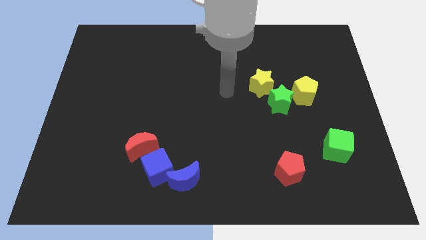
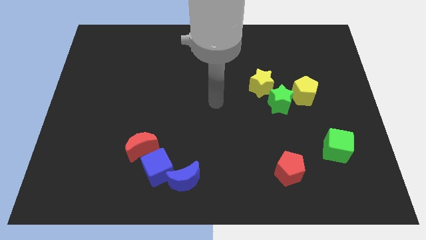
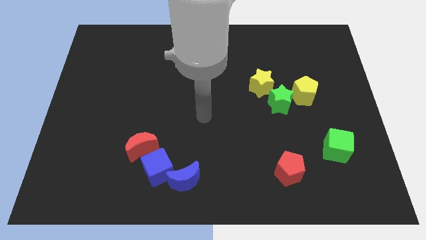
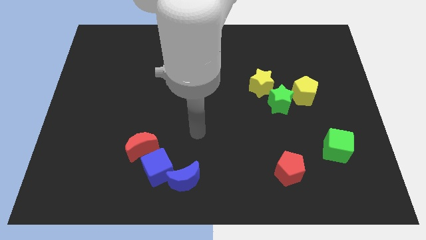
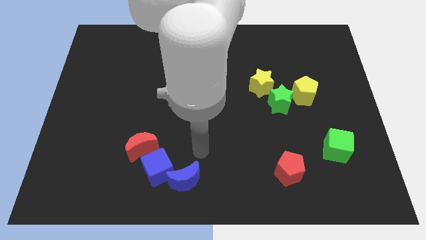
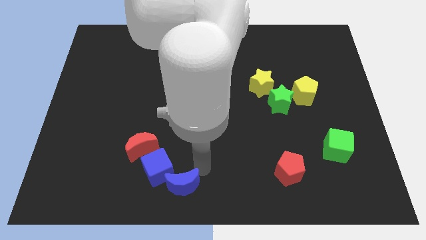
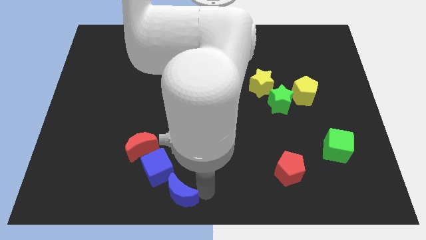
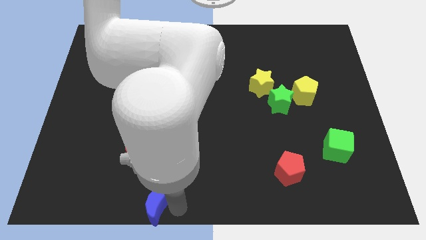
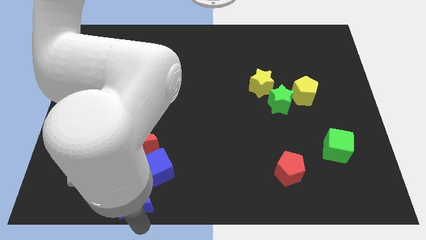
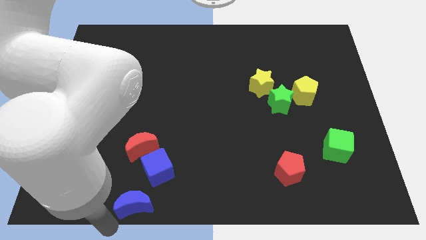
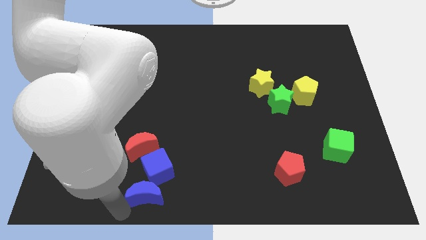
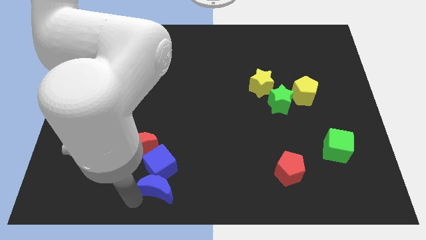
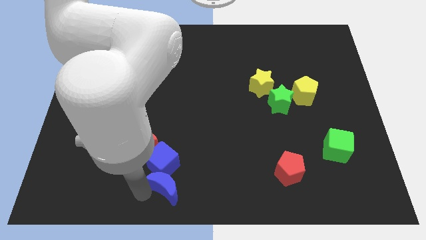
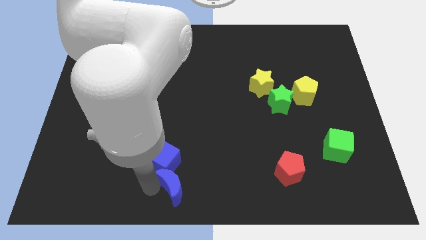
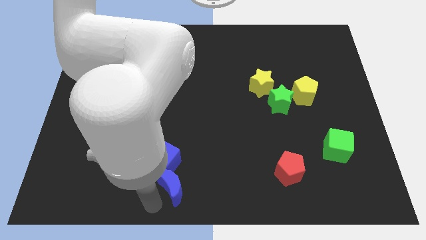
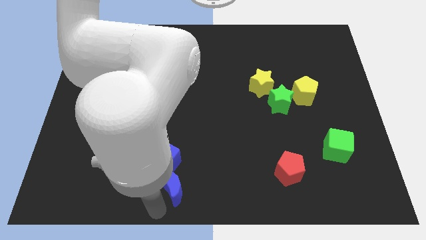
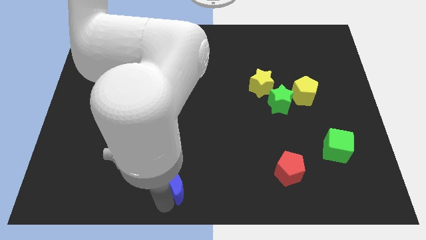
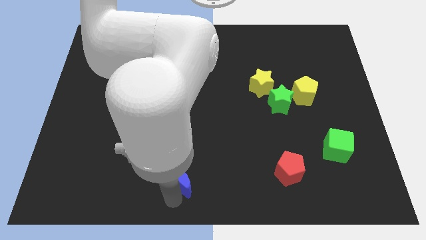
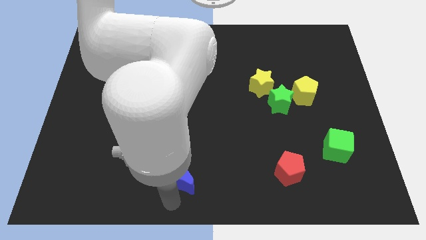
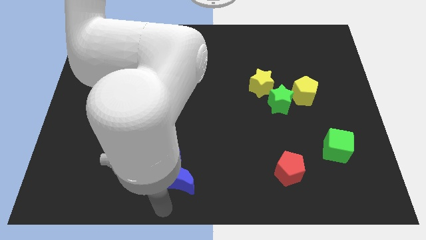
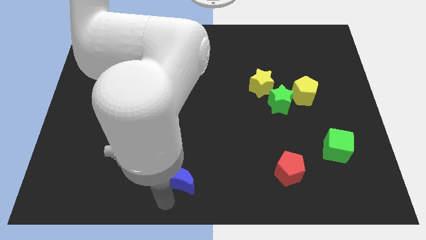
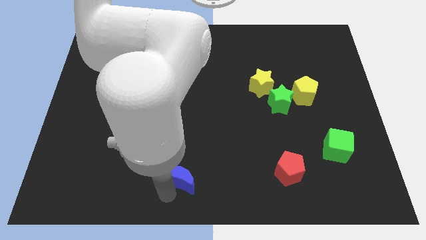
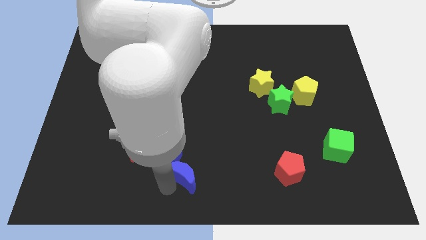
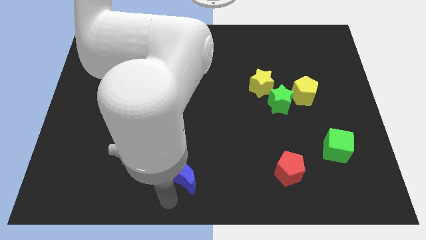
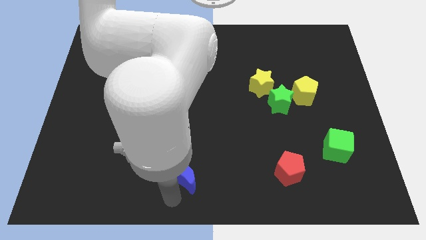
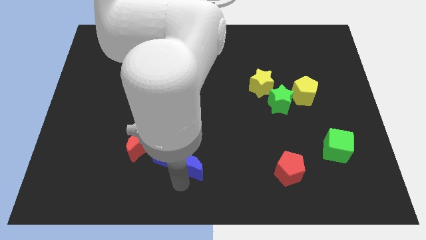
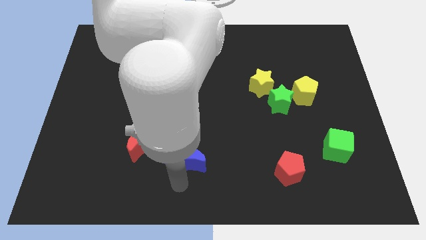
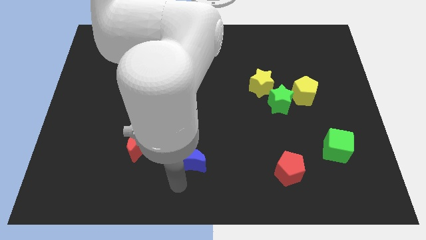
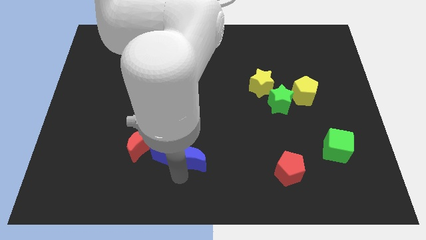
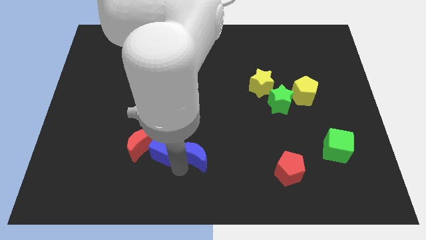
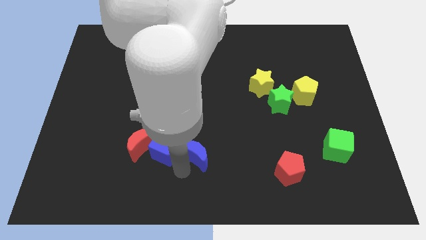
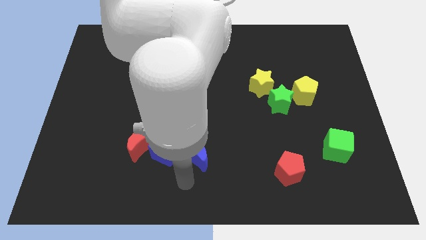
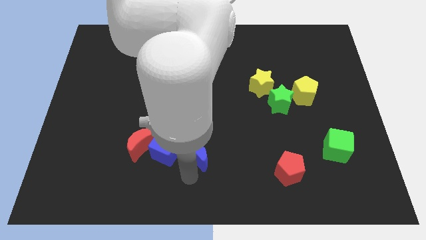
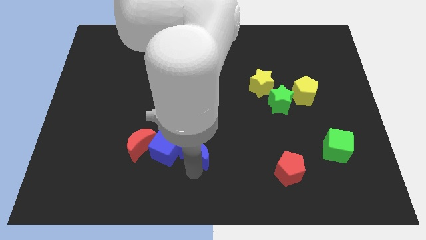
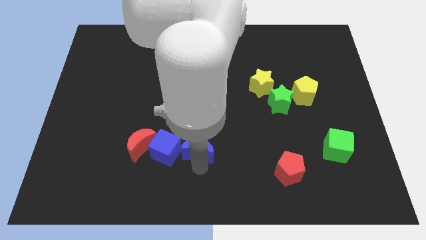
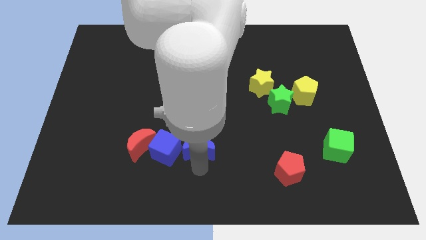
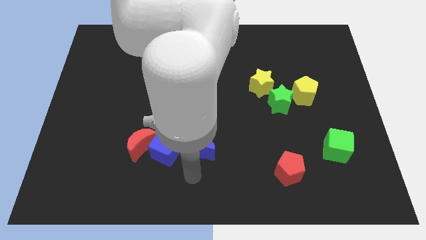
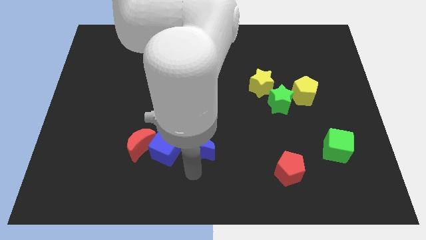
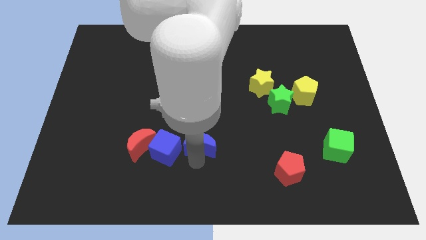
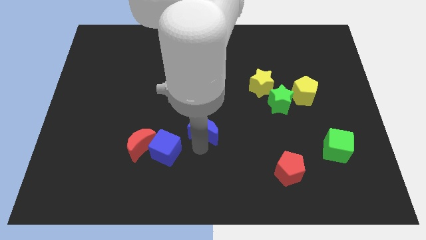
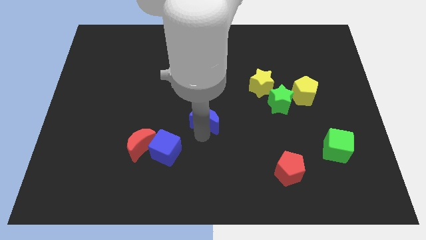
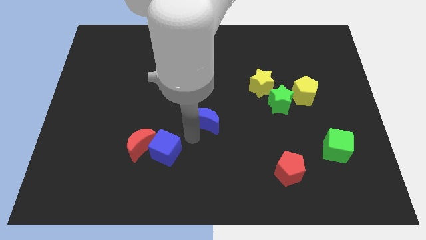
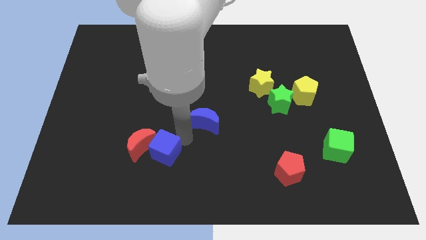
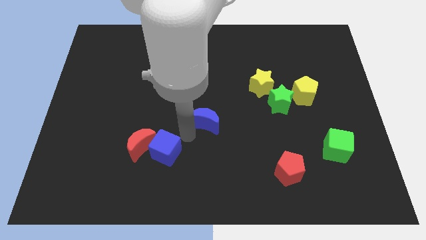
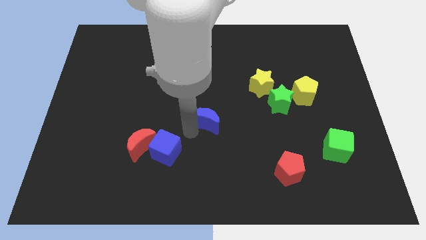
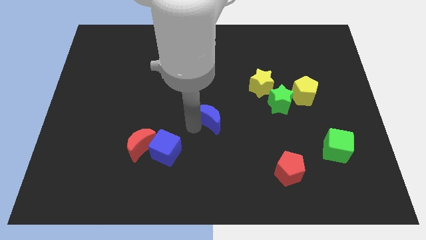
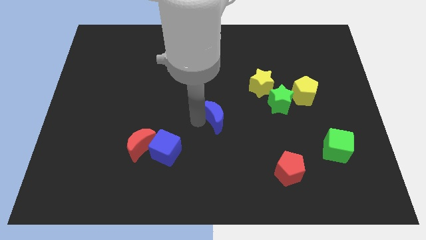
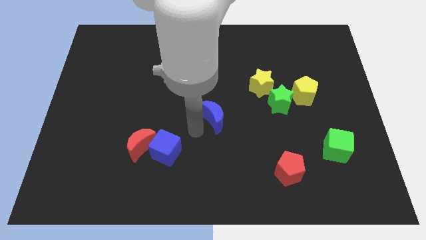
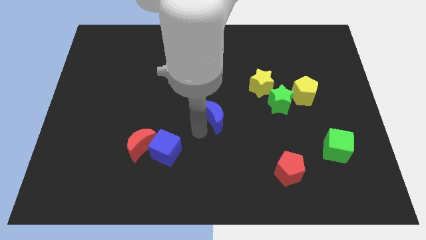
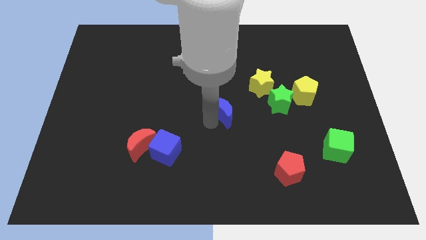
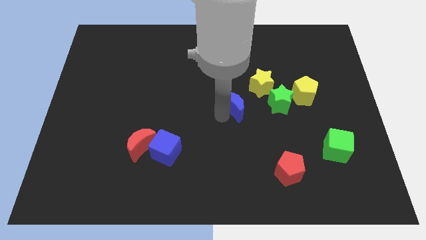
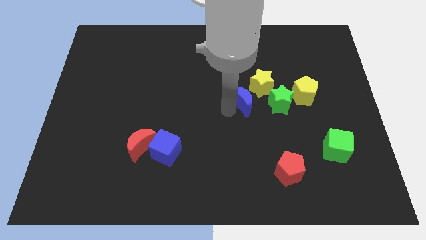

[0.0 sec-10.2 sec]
slide the blue moon left of the yellow pentagon

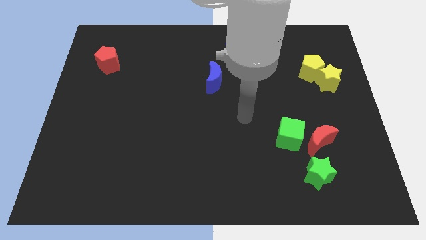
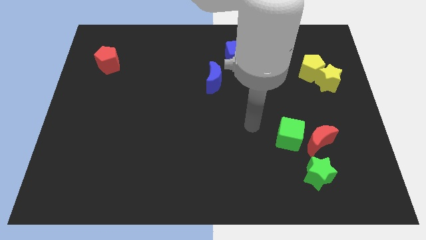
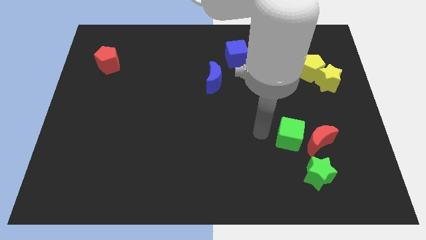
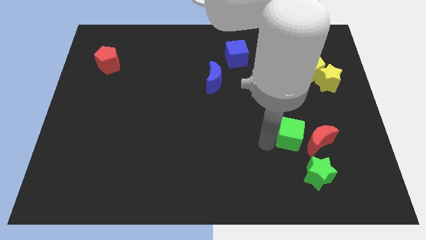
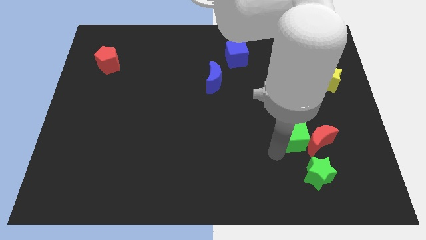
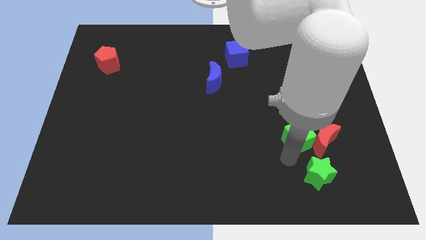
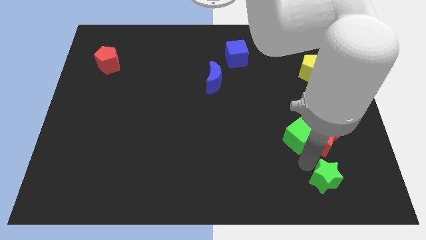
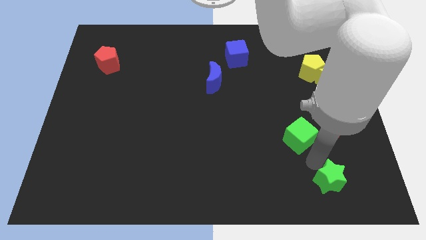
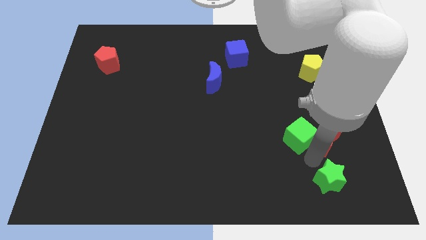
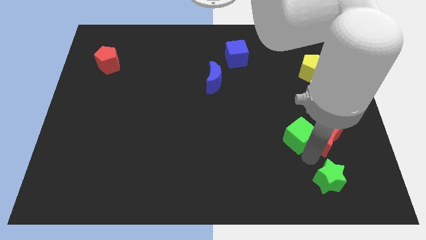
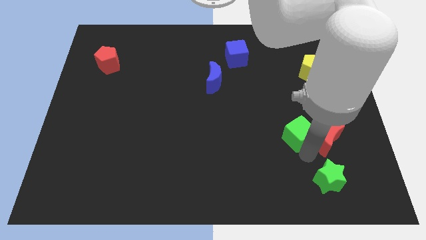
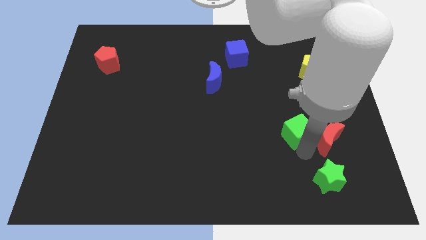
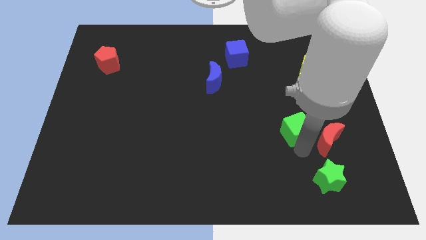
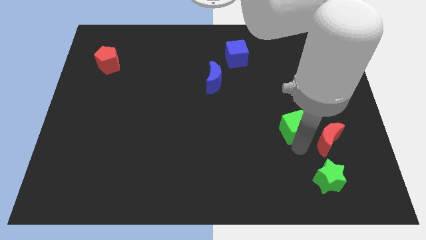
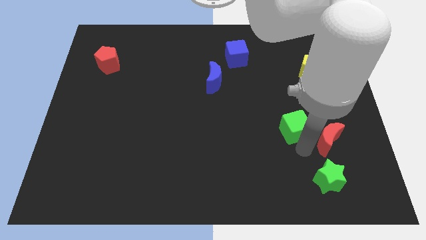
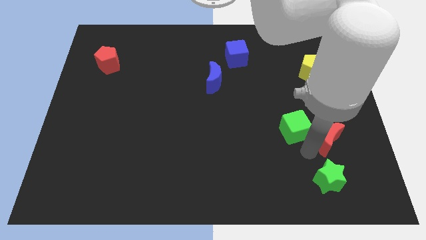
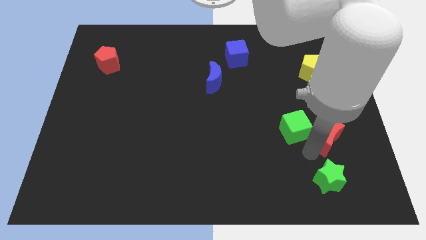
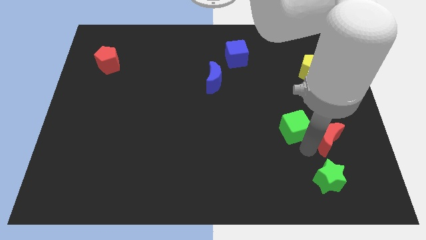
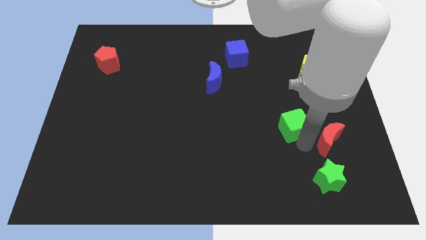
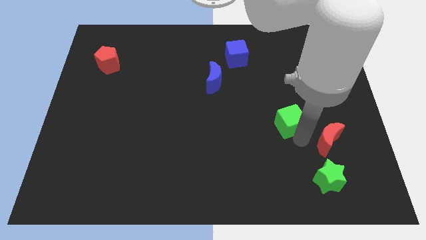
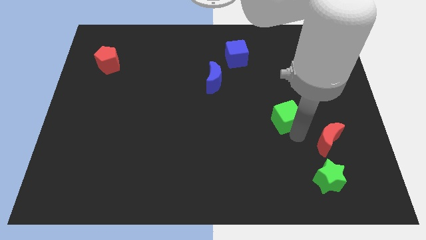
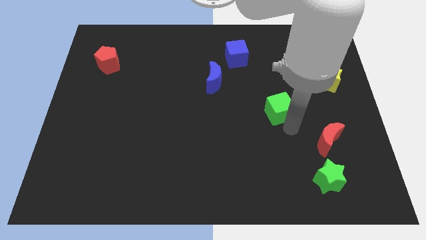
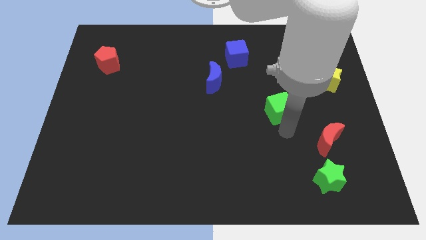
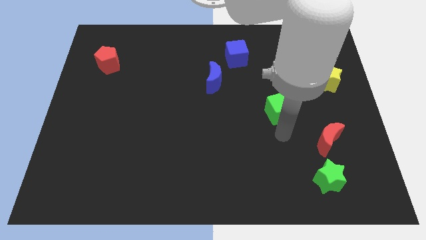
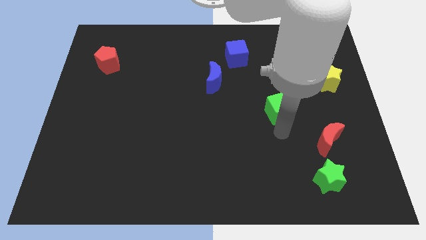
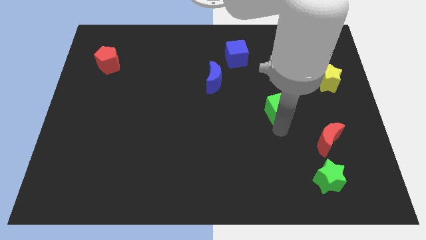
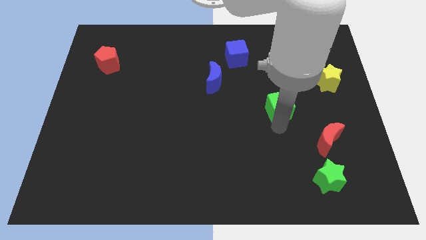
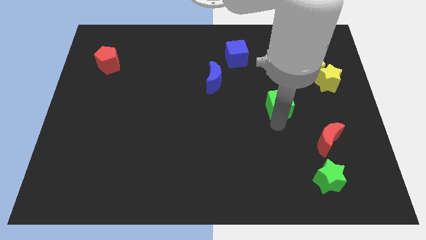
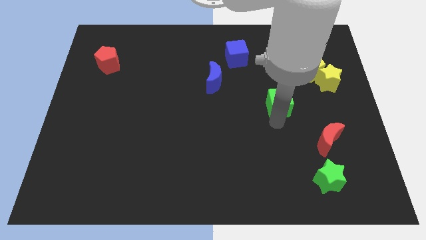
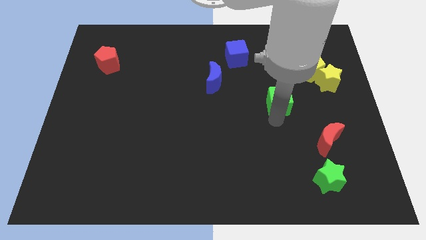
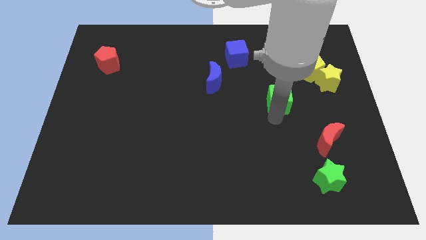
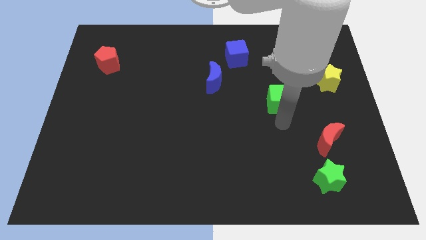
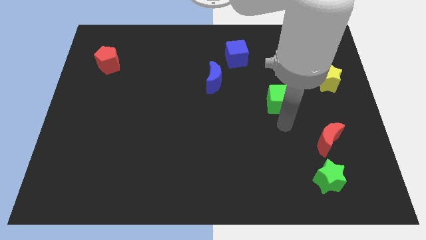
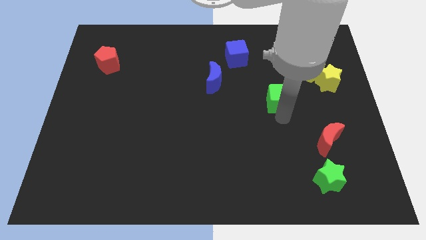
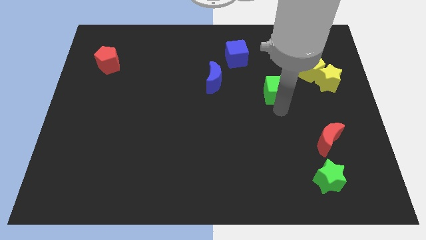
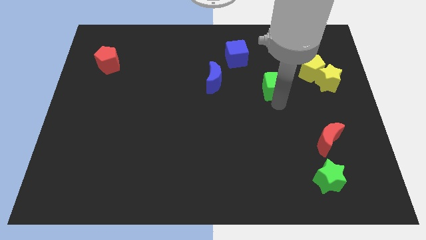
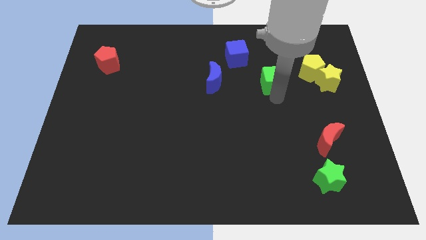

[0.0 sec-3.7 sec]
move the green cube to the left of the yellow pentagon
